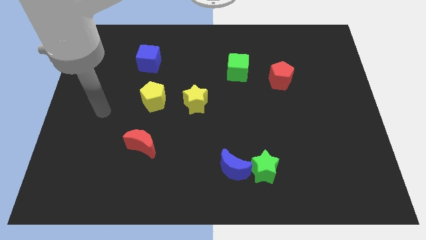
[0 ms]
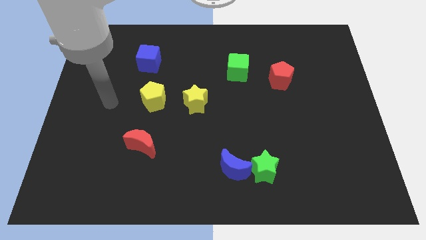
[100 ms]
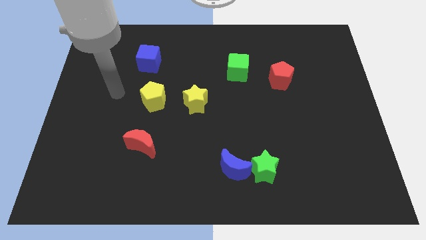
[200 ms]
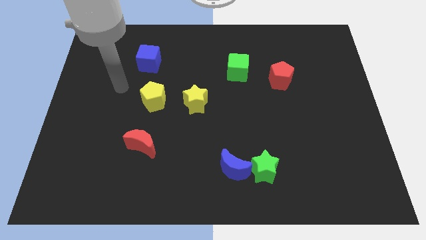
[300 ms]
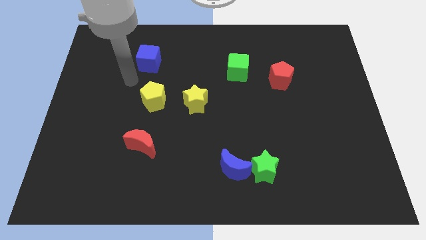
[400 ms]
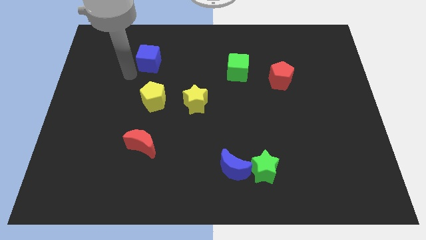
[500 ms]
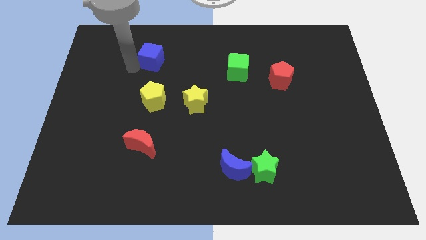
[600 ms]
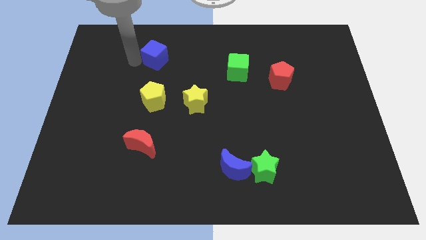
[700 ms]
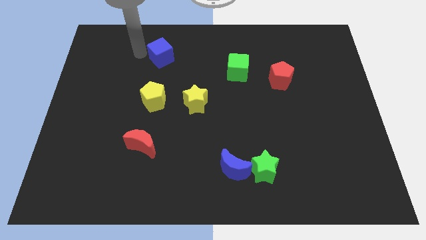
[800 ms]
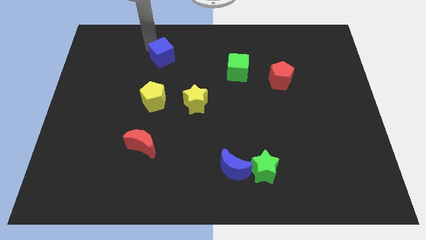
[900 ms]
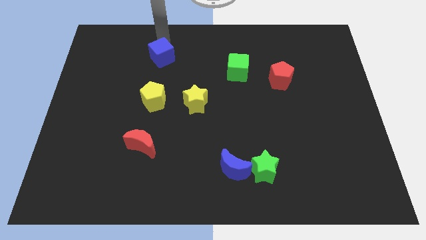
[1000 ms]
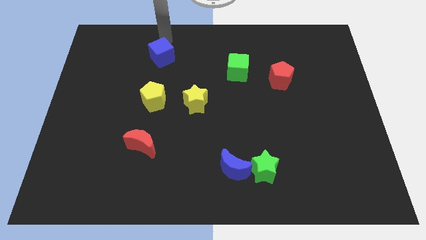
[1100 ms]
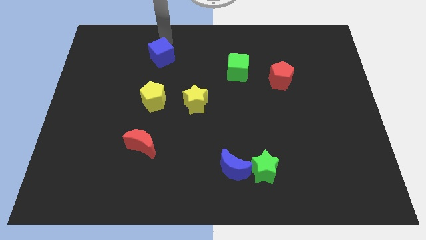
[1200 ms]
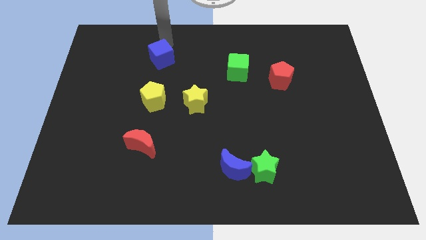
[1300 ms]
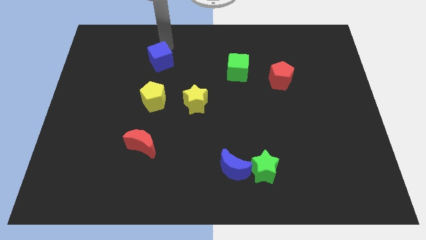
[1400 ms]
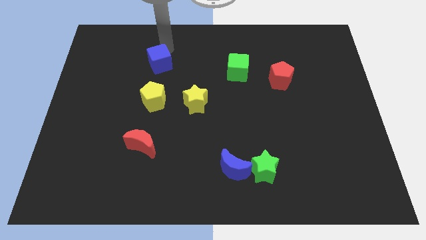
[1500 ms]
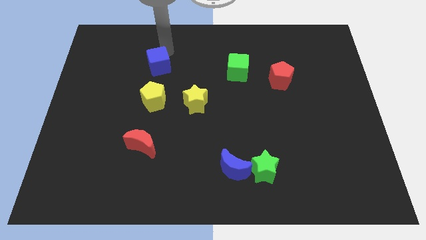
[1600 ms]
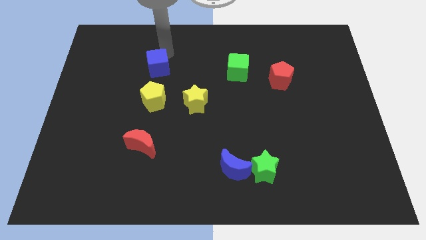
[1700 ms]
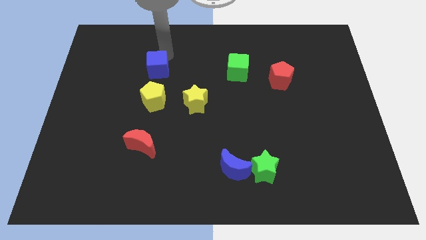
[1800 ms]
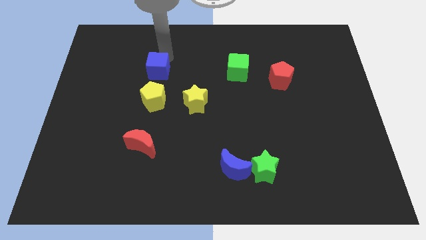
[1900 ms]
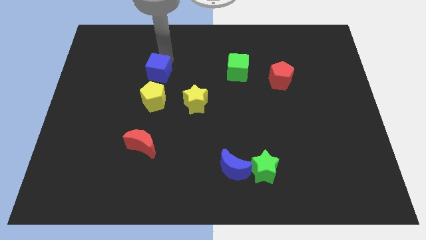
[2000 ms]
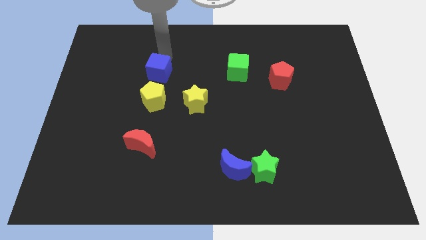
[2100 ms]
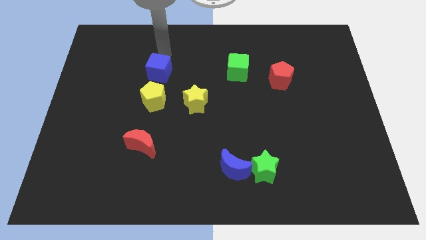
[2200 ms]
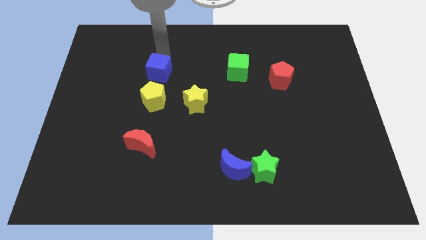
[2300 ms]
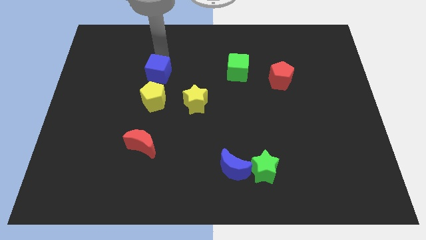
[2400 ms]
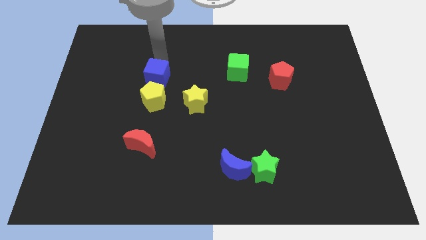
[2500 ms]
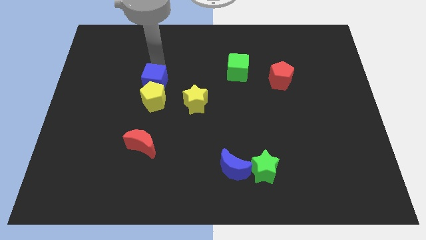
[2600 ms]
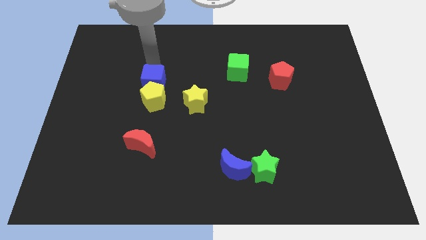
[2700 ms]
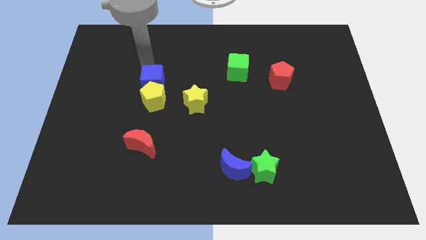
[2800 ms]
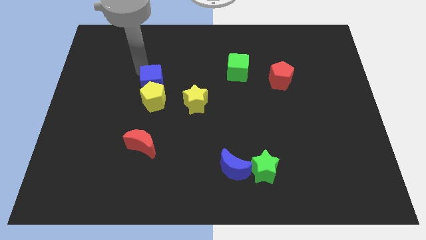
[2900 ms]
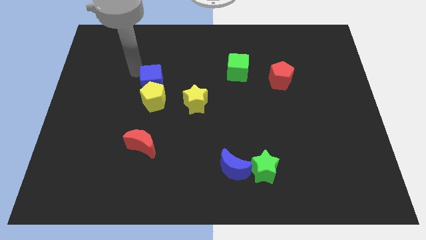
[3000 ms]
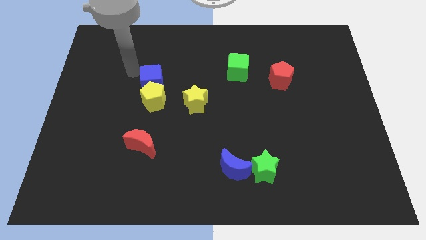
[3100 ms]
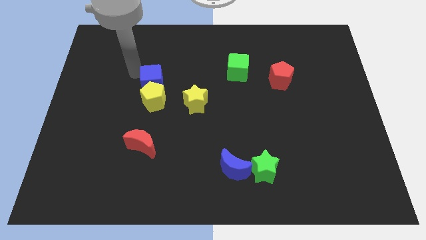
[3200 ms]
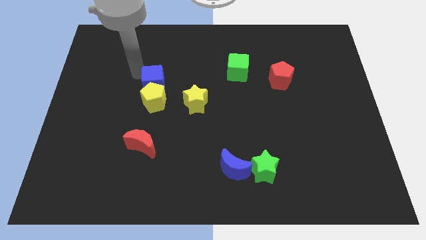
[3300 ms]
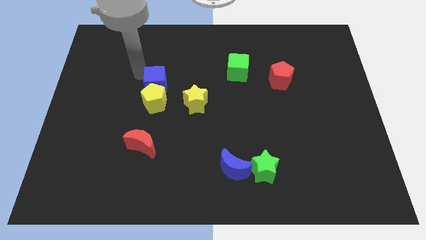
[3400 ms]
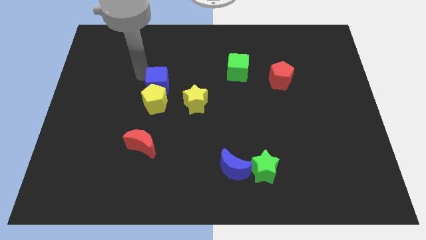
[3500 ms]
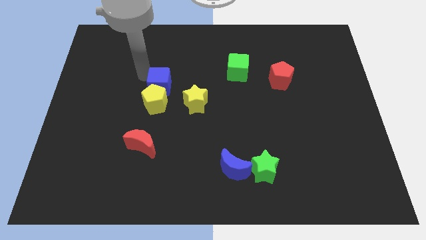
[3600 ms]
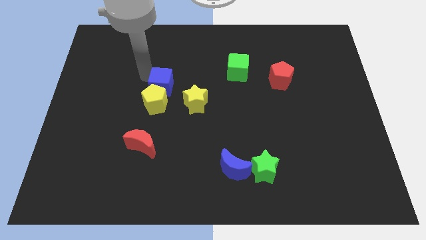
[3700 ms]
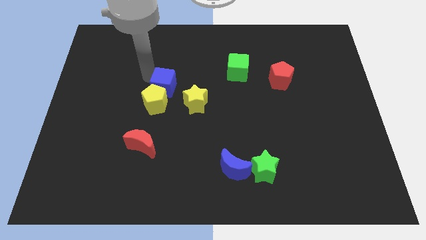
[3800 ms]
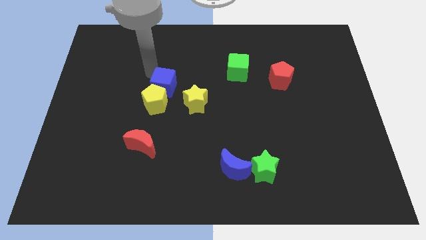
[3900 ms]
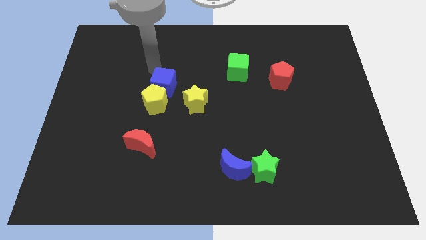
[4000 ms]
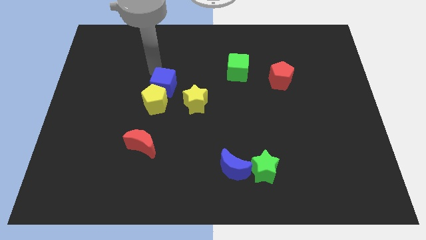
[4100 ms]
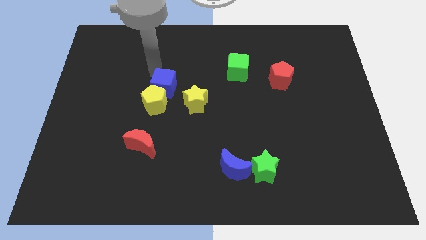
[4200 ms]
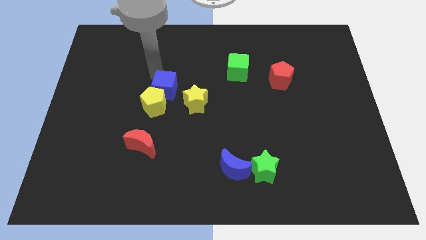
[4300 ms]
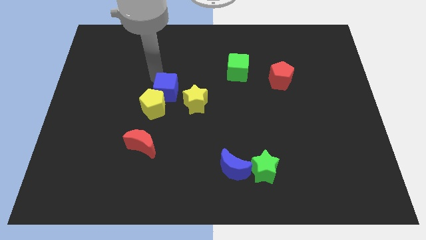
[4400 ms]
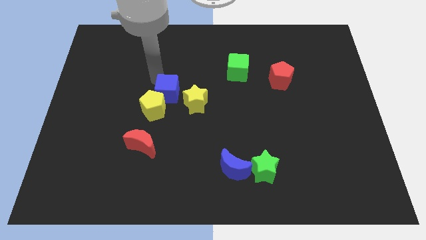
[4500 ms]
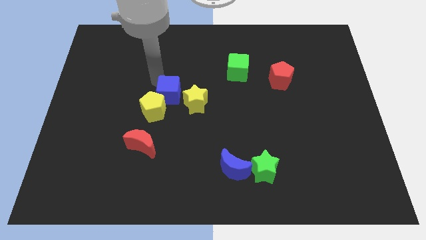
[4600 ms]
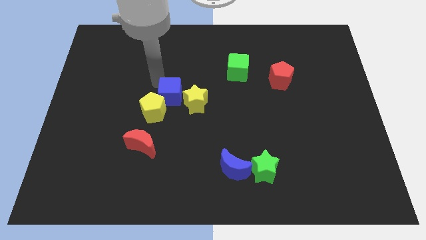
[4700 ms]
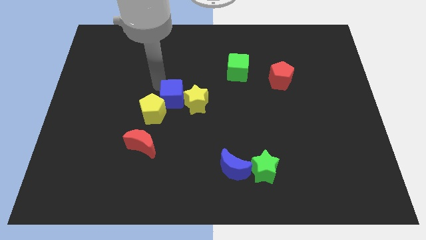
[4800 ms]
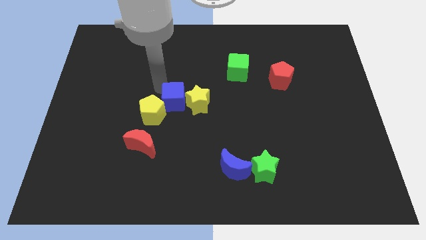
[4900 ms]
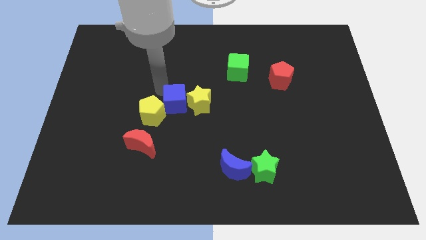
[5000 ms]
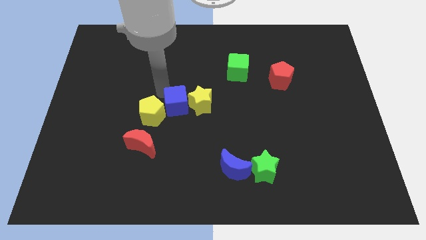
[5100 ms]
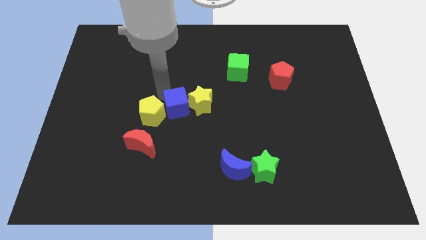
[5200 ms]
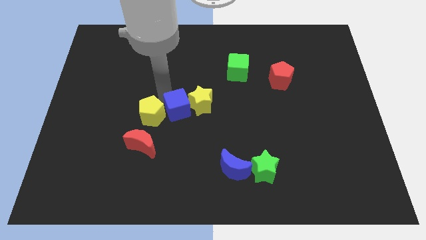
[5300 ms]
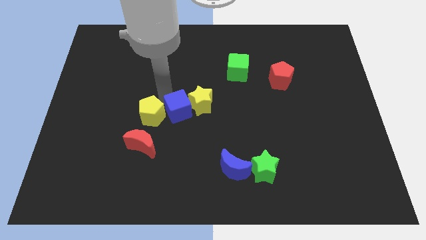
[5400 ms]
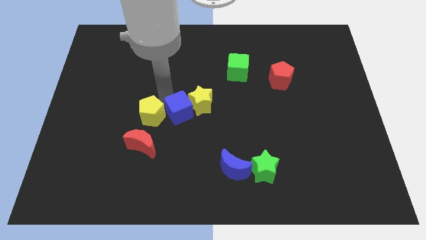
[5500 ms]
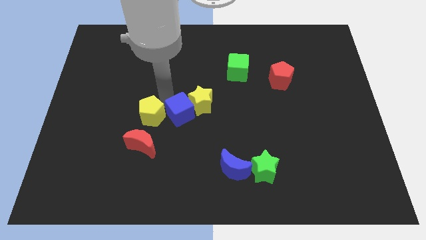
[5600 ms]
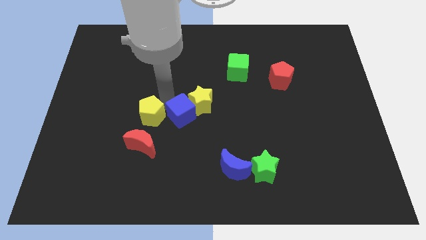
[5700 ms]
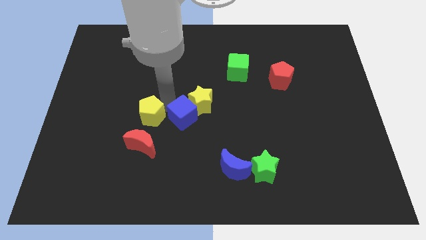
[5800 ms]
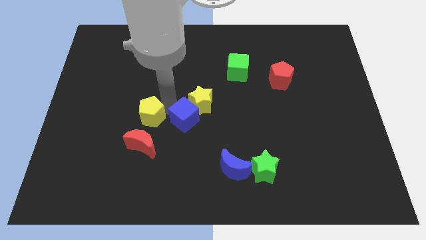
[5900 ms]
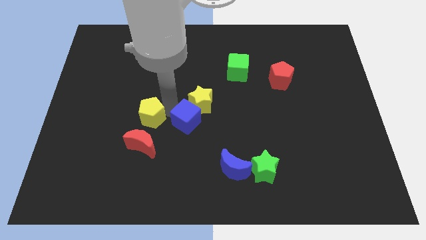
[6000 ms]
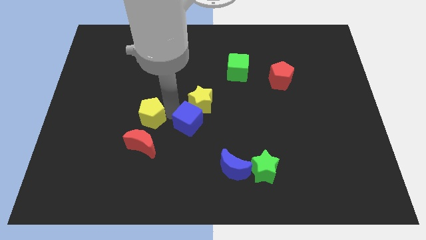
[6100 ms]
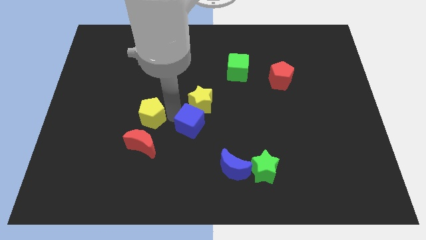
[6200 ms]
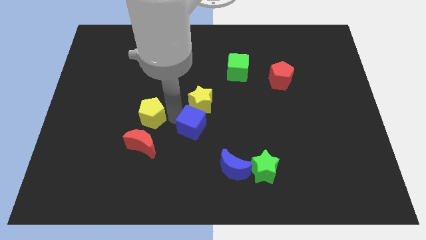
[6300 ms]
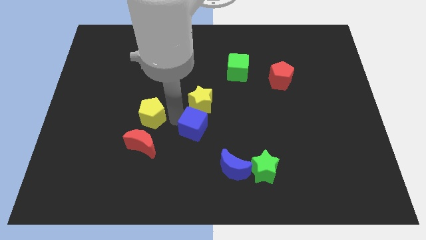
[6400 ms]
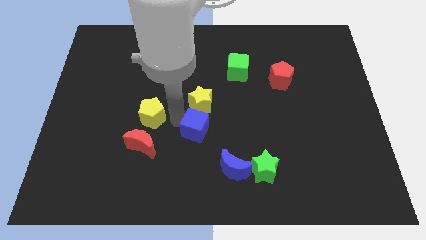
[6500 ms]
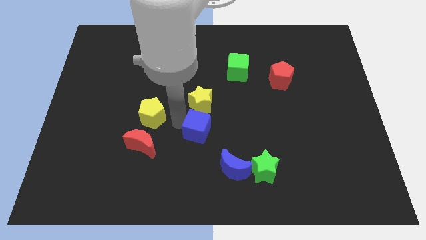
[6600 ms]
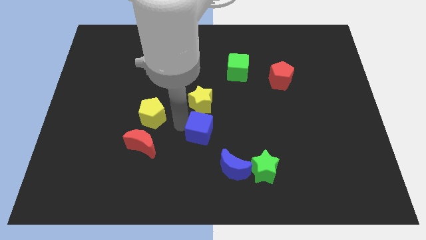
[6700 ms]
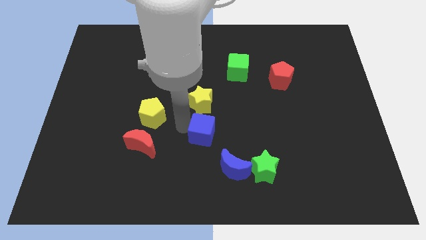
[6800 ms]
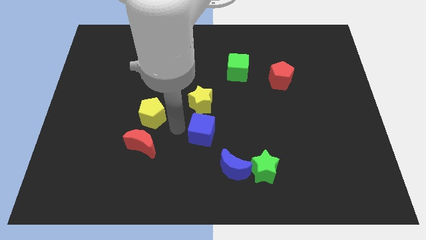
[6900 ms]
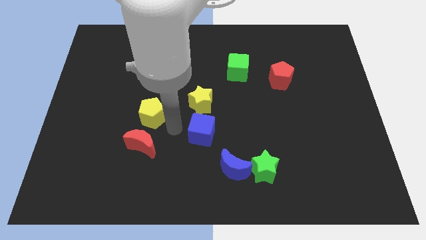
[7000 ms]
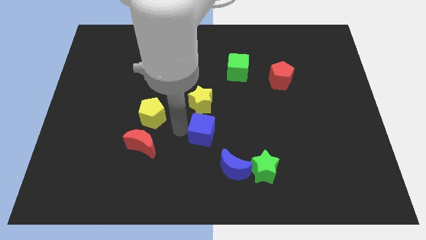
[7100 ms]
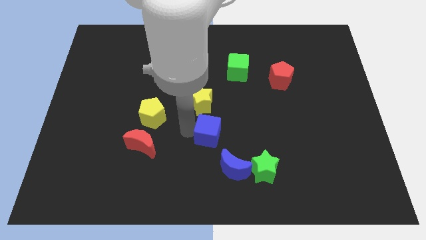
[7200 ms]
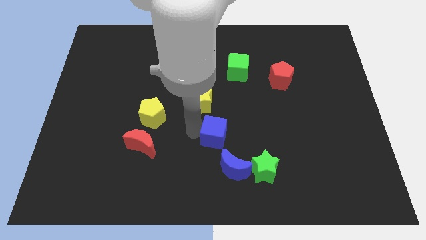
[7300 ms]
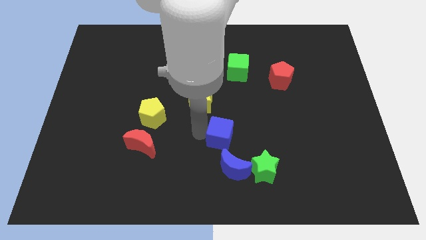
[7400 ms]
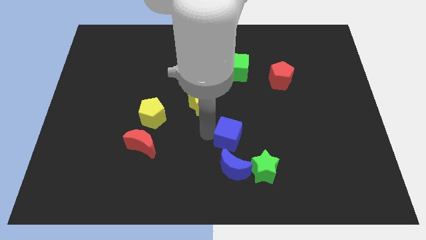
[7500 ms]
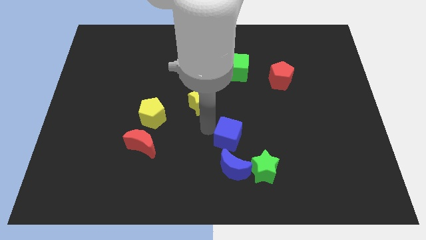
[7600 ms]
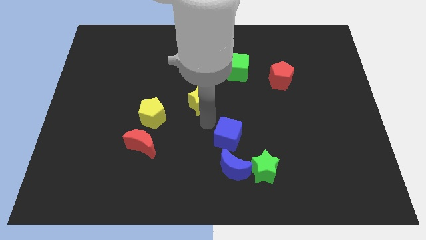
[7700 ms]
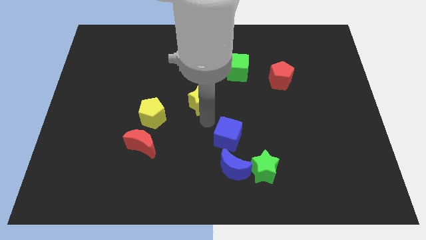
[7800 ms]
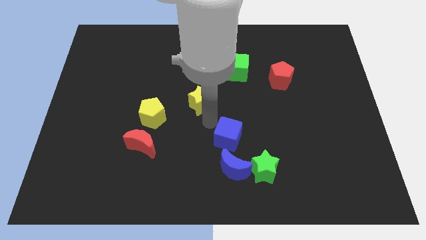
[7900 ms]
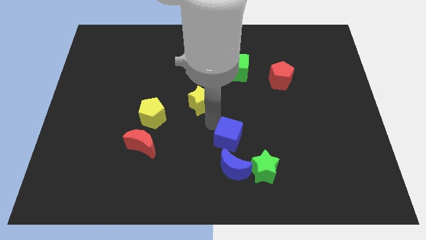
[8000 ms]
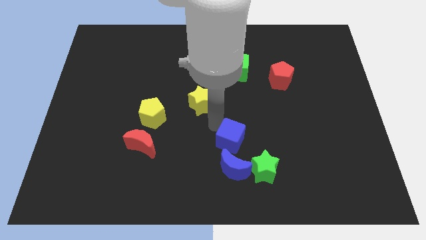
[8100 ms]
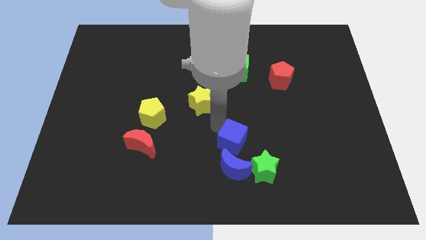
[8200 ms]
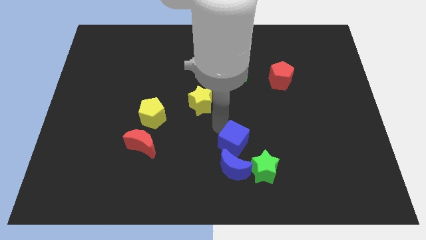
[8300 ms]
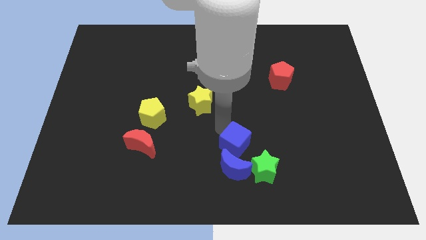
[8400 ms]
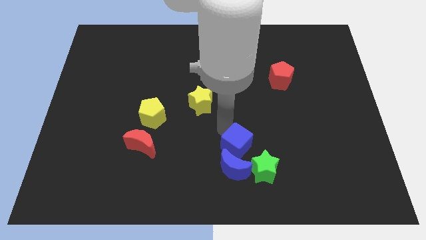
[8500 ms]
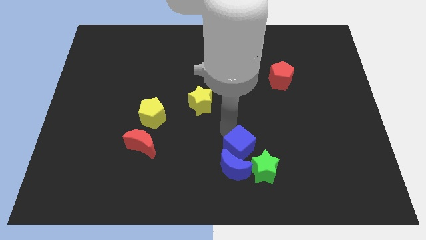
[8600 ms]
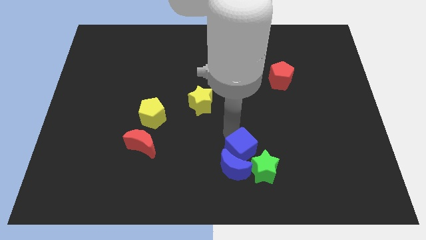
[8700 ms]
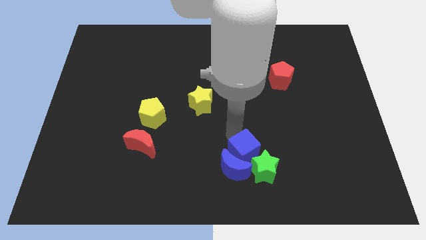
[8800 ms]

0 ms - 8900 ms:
push the blue cube close to the green star
